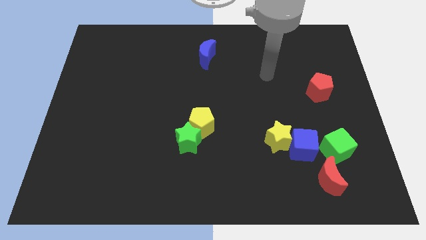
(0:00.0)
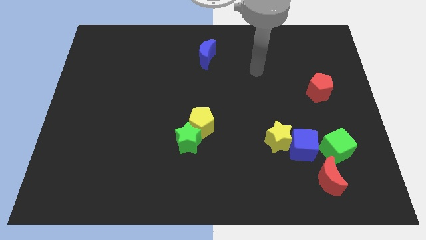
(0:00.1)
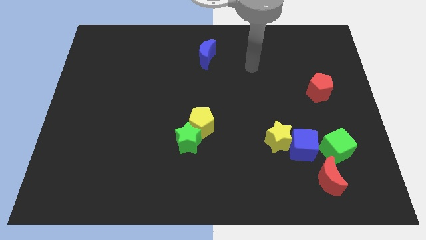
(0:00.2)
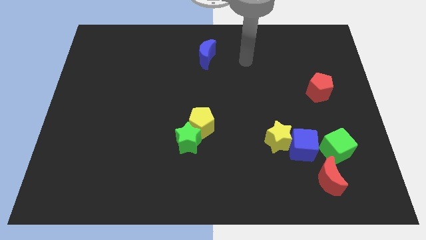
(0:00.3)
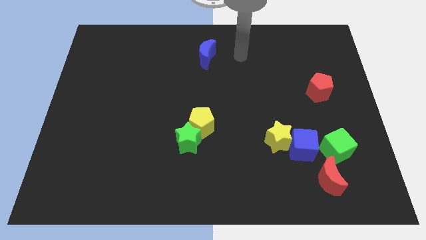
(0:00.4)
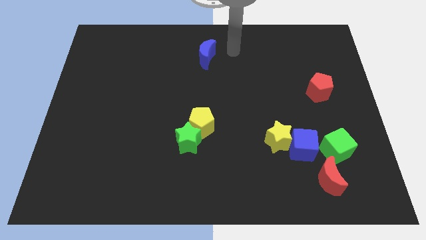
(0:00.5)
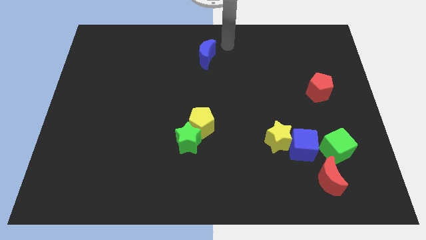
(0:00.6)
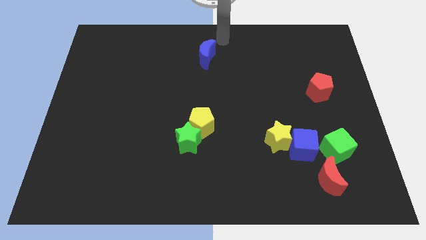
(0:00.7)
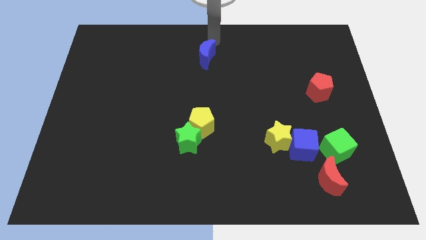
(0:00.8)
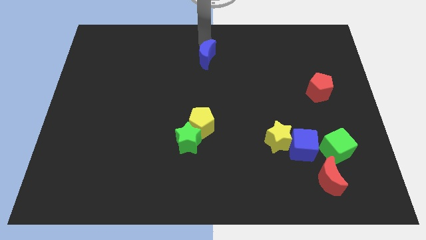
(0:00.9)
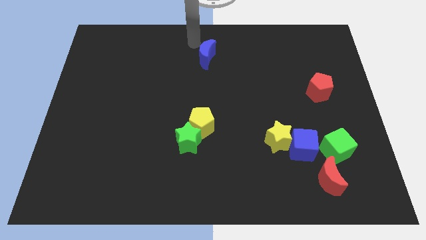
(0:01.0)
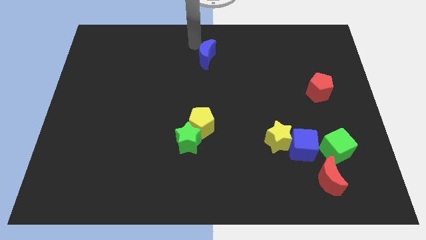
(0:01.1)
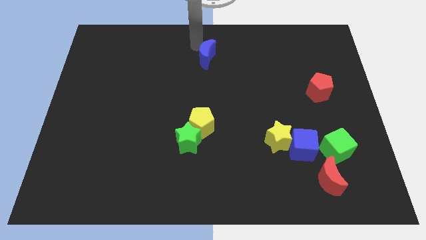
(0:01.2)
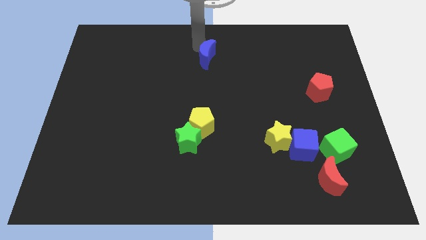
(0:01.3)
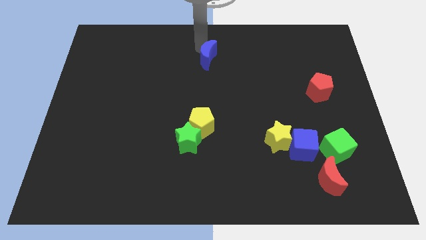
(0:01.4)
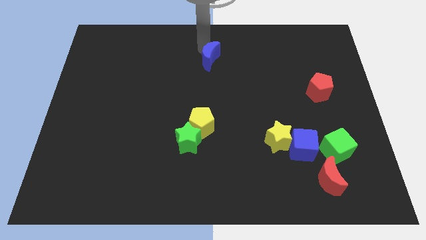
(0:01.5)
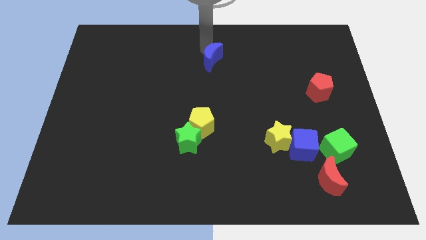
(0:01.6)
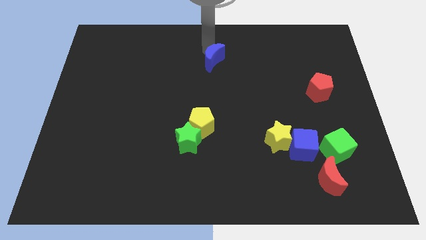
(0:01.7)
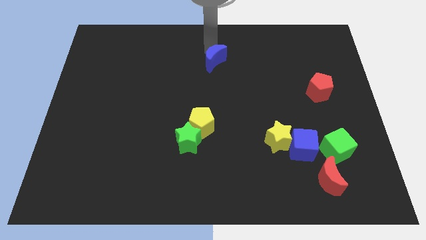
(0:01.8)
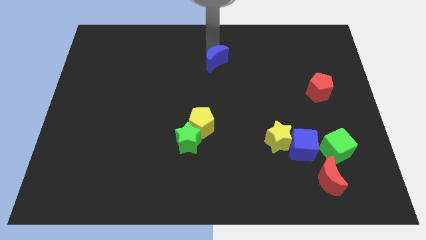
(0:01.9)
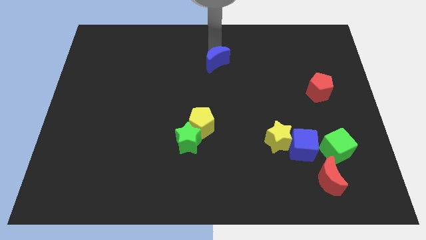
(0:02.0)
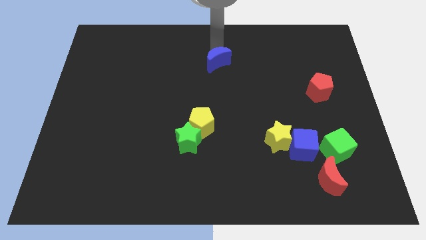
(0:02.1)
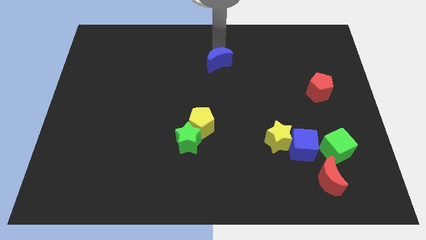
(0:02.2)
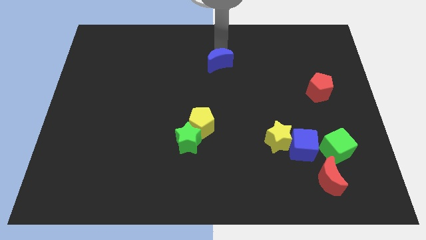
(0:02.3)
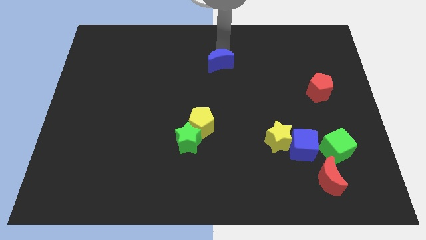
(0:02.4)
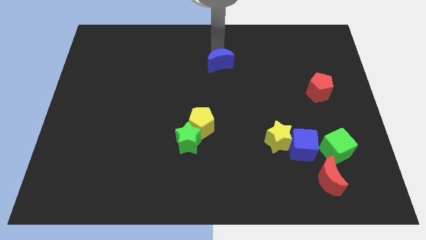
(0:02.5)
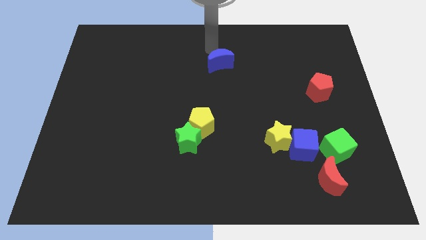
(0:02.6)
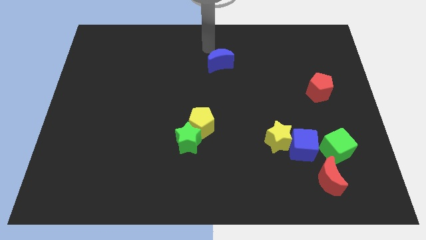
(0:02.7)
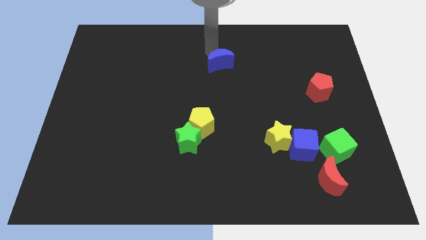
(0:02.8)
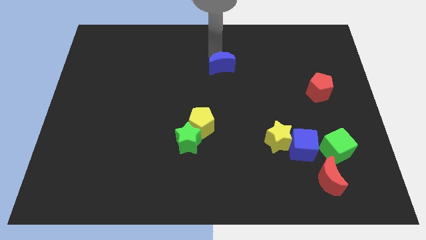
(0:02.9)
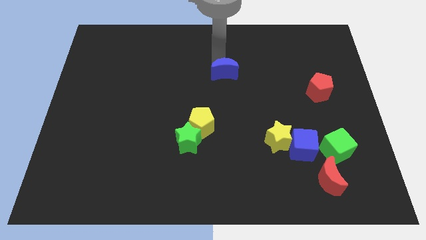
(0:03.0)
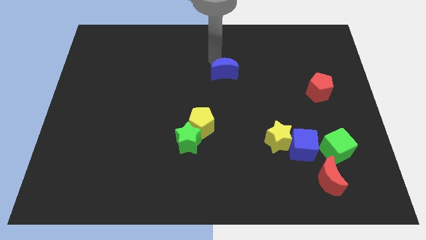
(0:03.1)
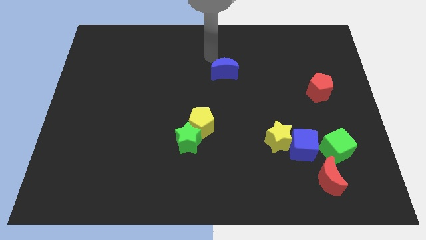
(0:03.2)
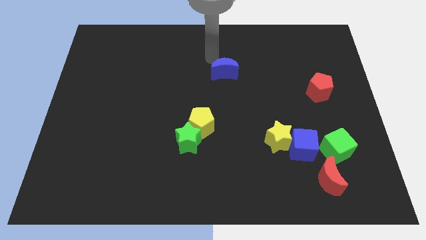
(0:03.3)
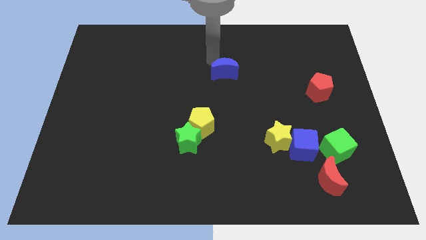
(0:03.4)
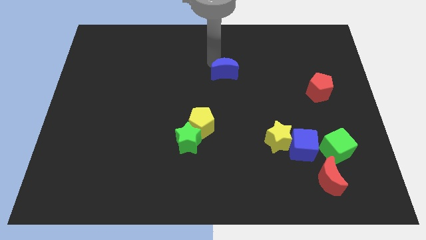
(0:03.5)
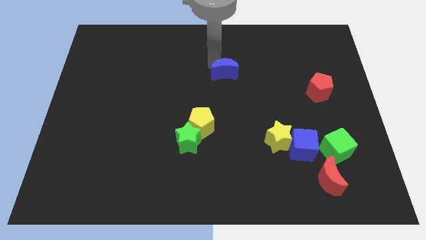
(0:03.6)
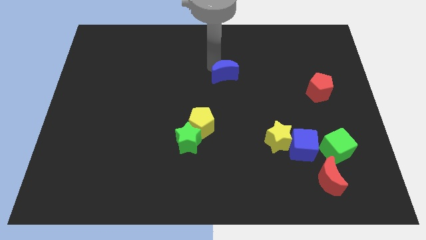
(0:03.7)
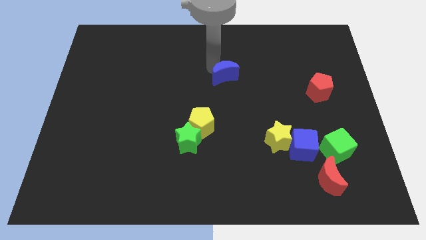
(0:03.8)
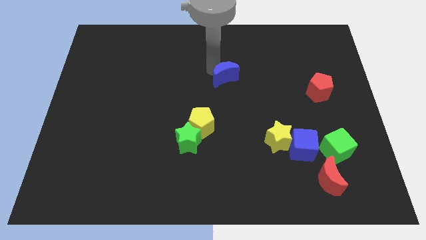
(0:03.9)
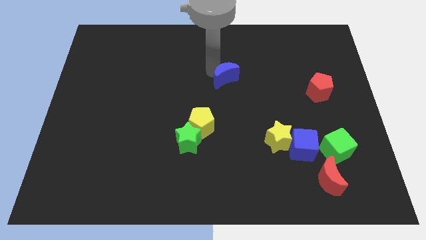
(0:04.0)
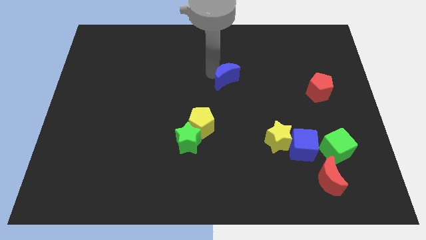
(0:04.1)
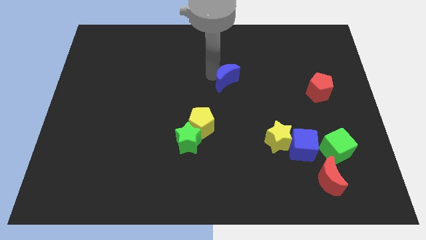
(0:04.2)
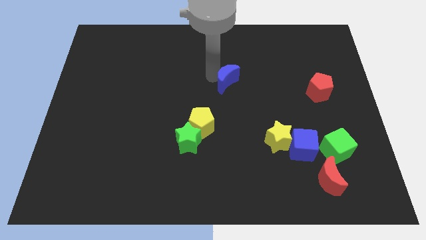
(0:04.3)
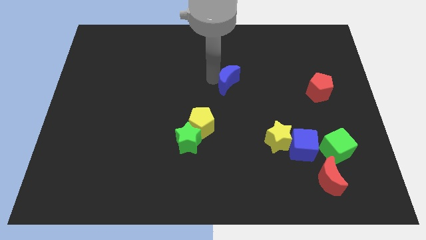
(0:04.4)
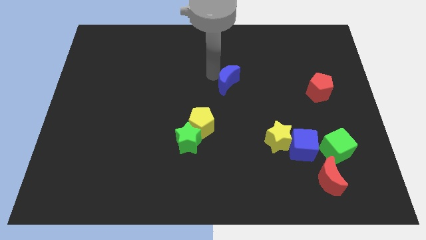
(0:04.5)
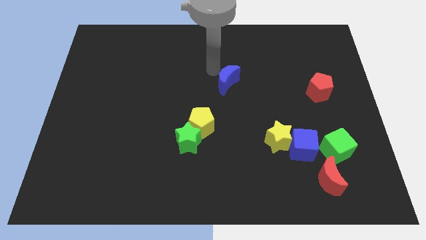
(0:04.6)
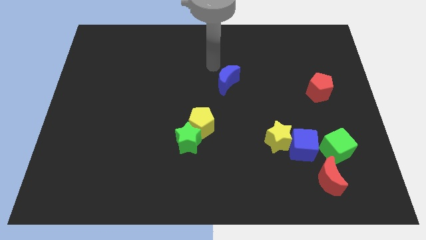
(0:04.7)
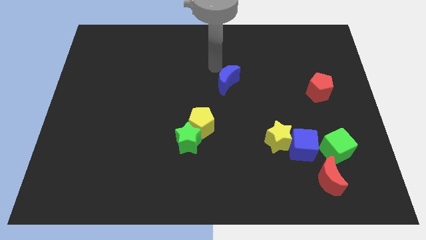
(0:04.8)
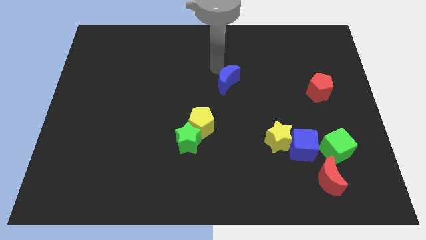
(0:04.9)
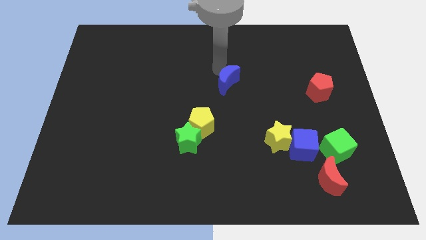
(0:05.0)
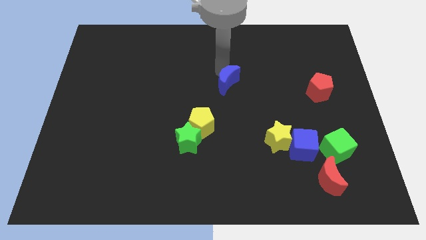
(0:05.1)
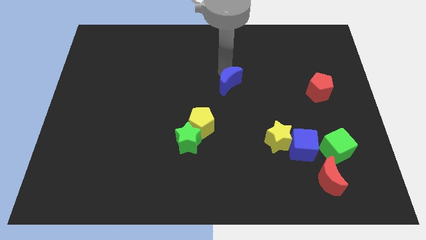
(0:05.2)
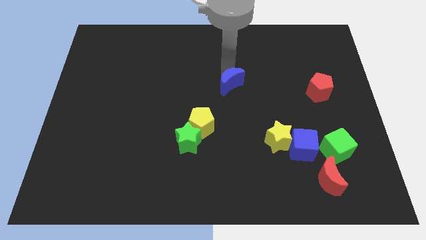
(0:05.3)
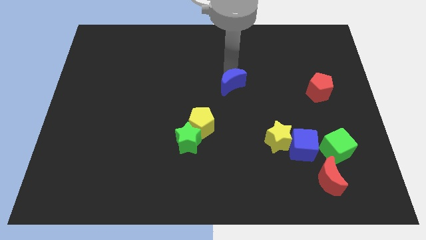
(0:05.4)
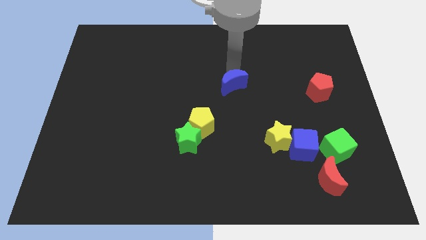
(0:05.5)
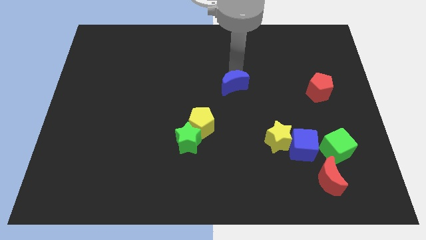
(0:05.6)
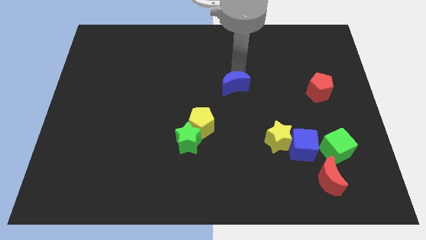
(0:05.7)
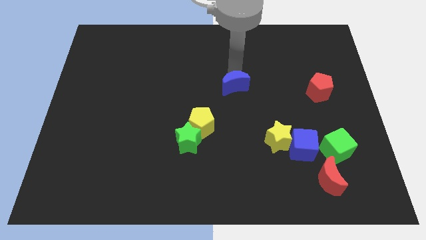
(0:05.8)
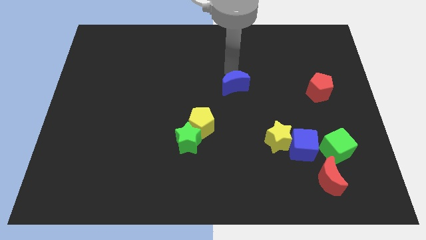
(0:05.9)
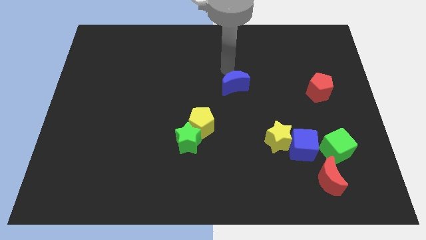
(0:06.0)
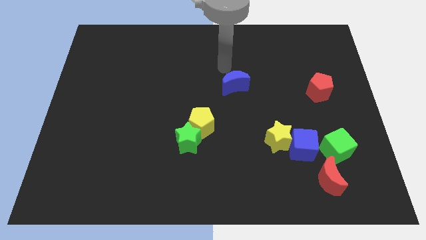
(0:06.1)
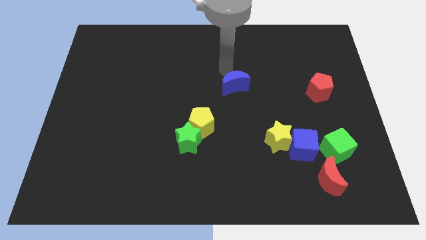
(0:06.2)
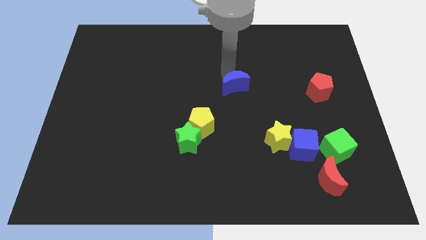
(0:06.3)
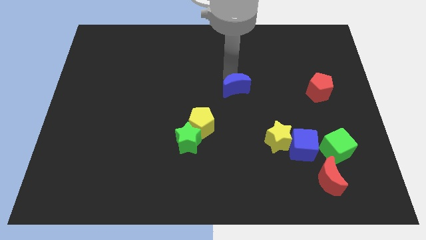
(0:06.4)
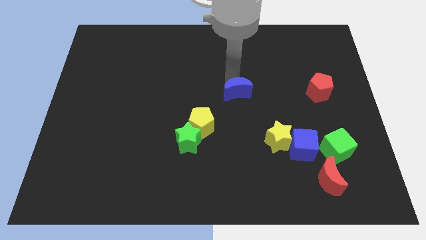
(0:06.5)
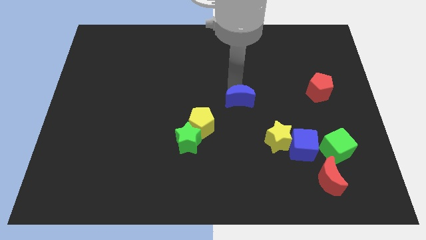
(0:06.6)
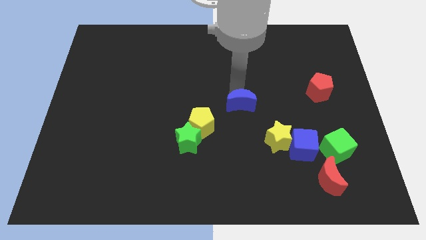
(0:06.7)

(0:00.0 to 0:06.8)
slide the blue moon to the top left side of the yellow star
